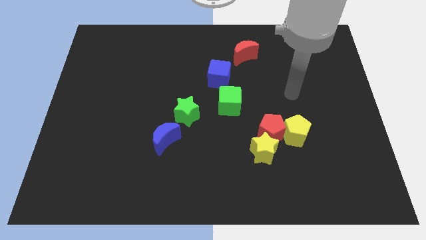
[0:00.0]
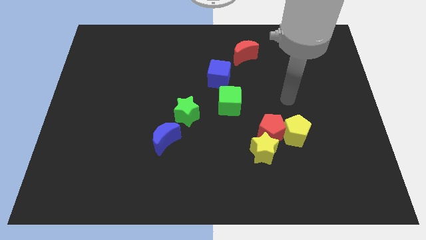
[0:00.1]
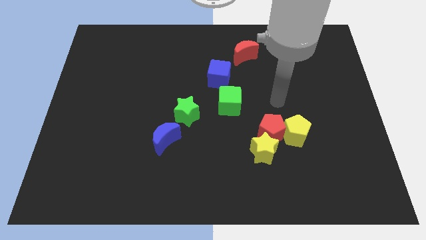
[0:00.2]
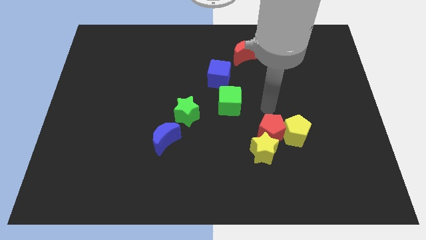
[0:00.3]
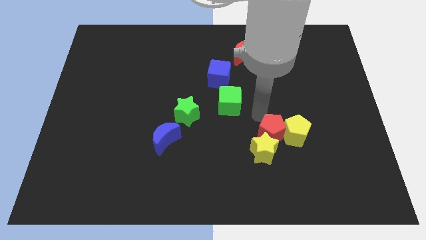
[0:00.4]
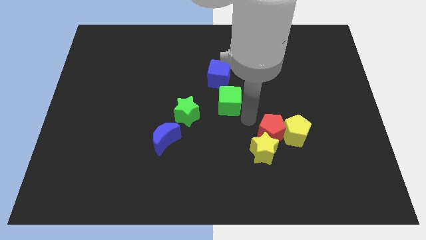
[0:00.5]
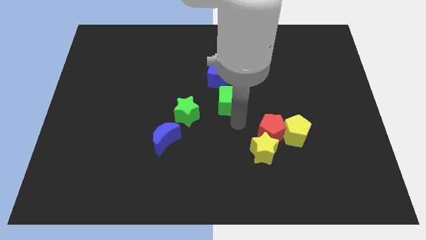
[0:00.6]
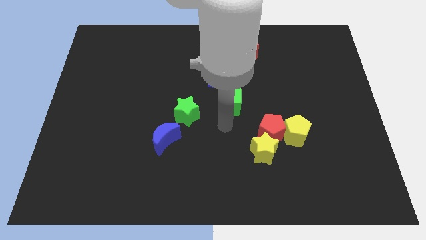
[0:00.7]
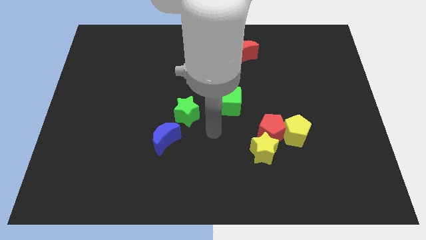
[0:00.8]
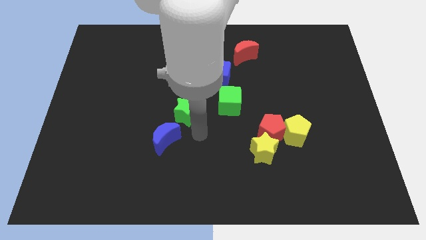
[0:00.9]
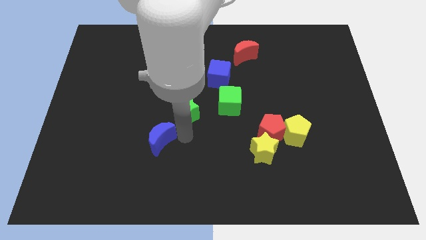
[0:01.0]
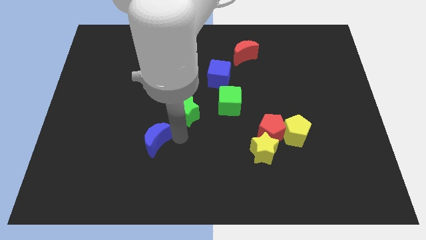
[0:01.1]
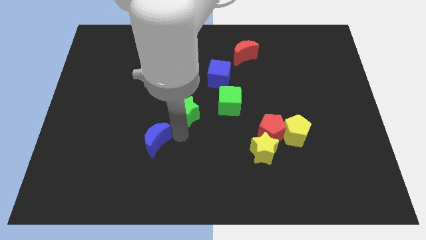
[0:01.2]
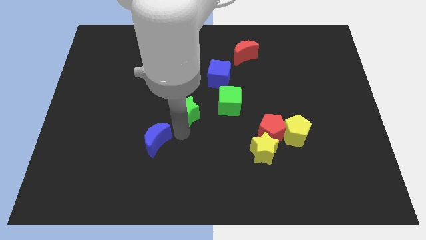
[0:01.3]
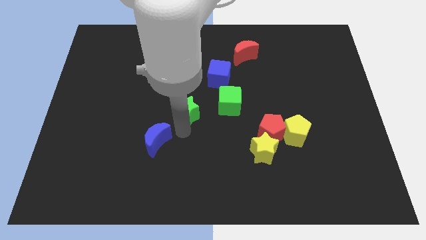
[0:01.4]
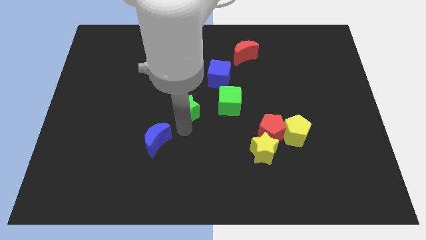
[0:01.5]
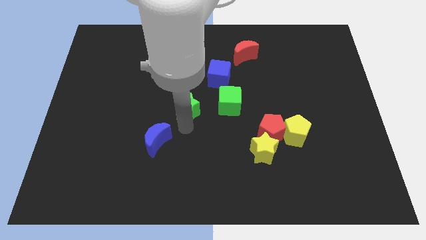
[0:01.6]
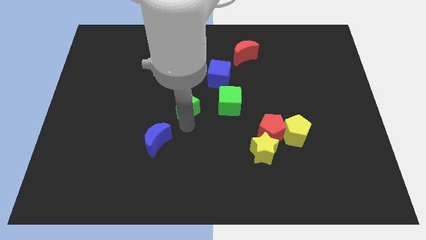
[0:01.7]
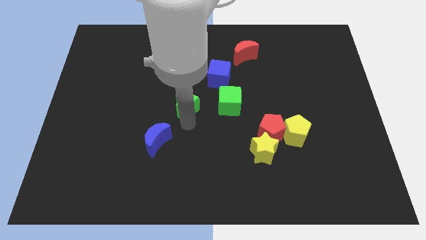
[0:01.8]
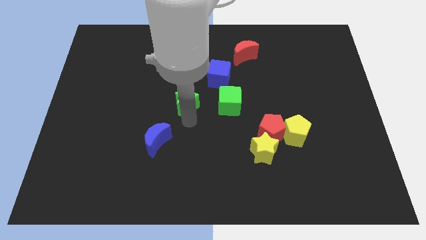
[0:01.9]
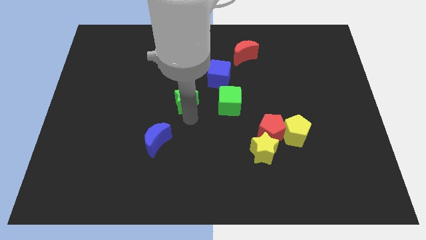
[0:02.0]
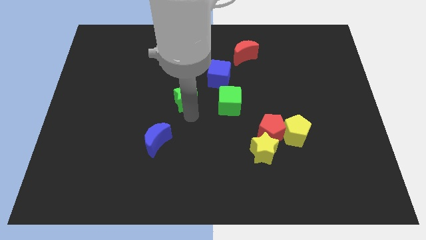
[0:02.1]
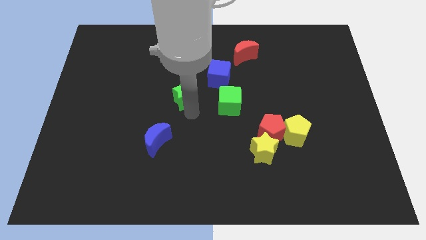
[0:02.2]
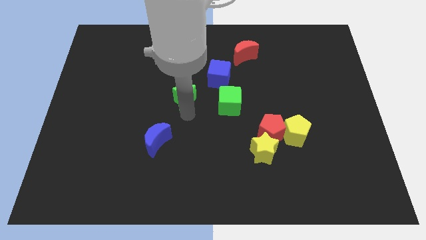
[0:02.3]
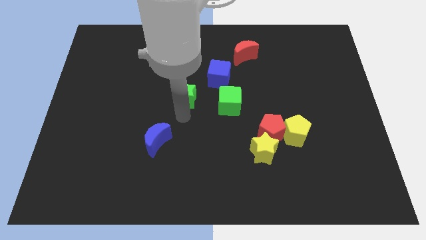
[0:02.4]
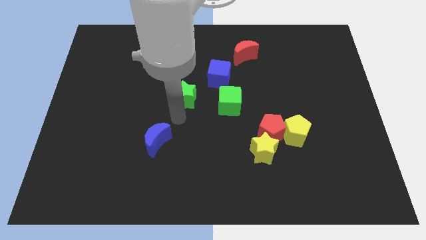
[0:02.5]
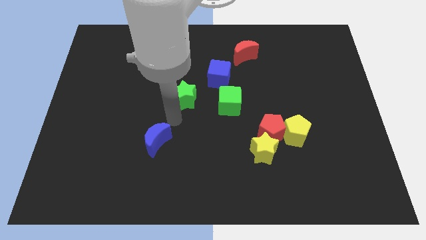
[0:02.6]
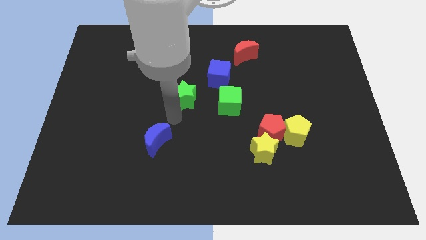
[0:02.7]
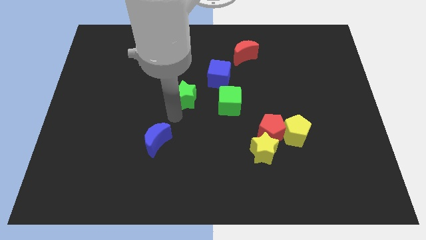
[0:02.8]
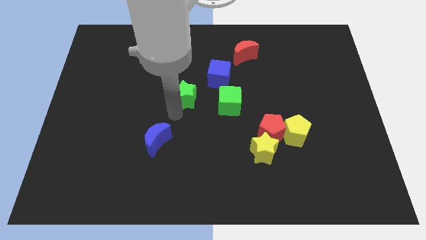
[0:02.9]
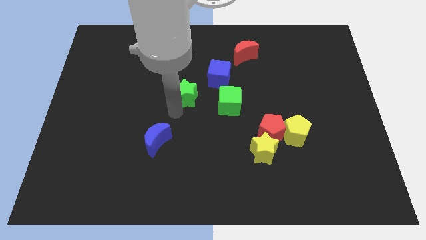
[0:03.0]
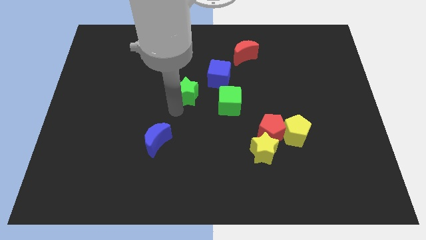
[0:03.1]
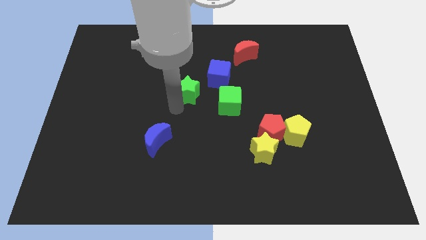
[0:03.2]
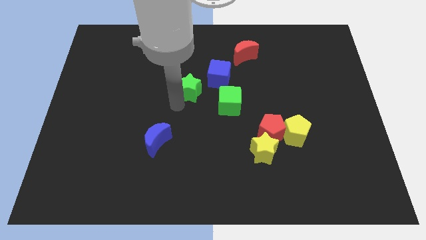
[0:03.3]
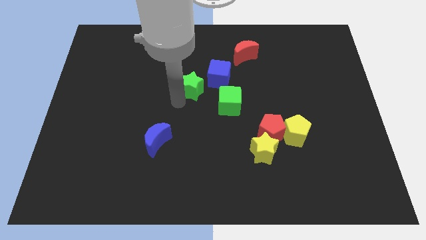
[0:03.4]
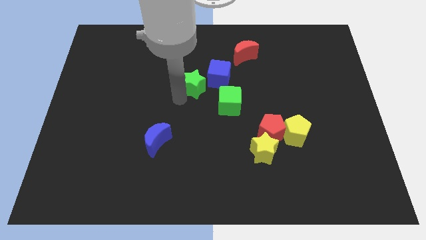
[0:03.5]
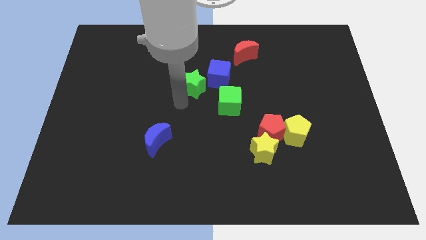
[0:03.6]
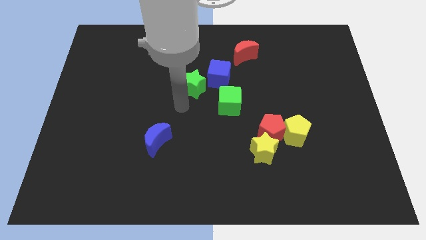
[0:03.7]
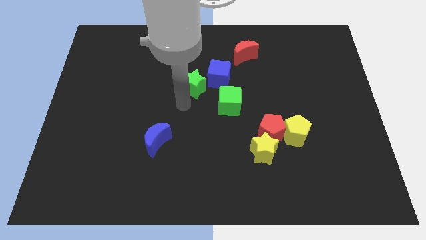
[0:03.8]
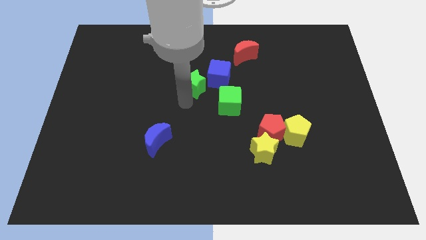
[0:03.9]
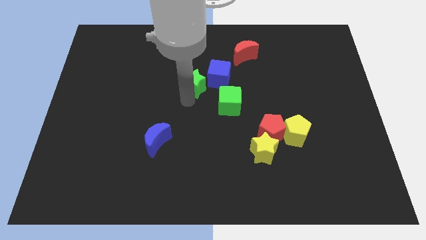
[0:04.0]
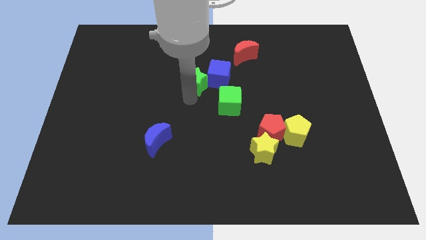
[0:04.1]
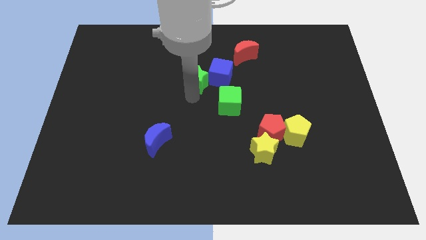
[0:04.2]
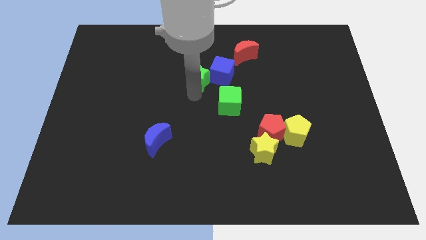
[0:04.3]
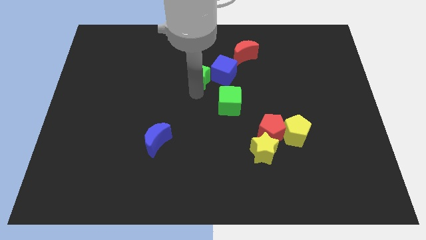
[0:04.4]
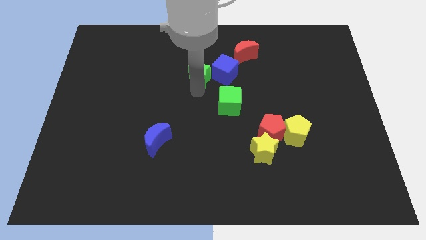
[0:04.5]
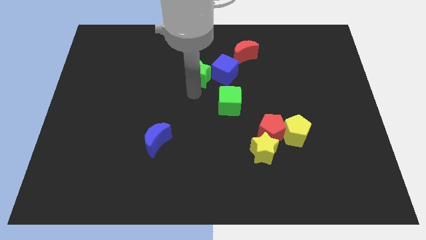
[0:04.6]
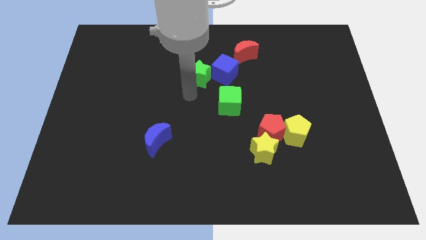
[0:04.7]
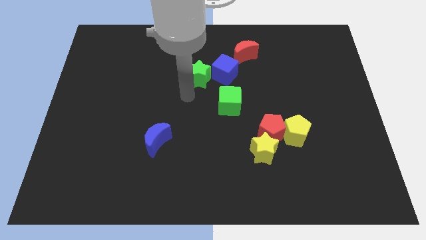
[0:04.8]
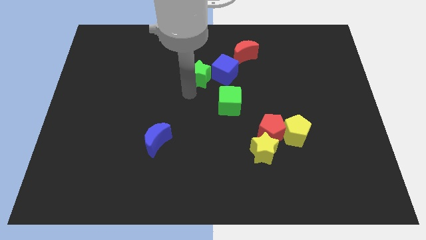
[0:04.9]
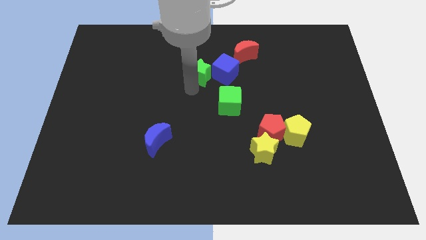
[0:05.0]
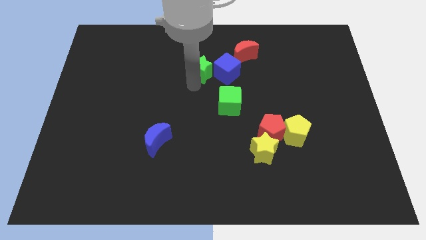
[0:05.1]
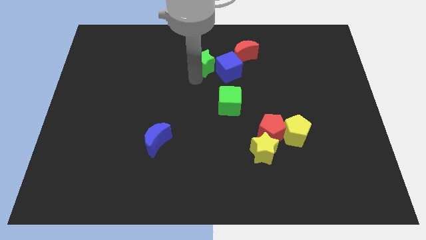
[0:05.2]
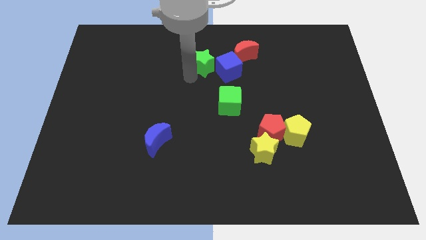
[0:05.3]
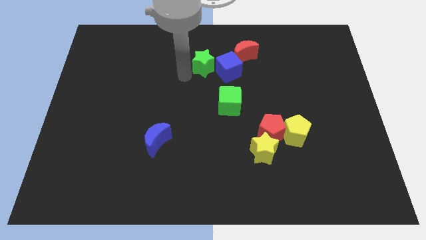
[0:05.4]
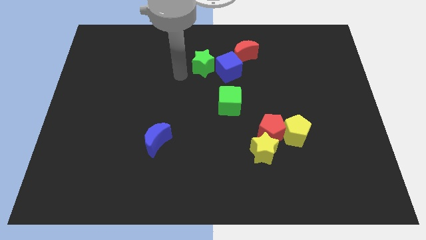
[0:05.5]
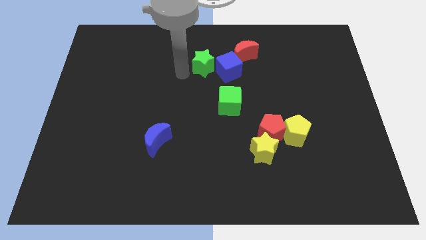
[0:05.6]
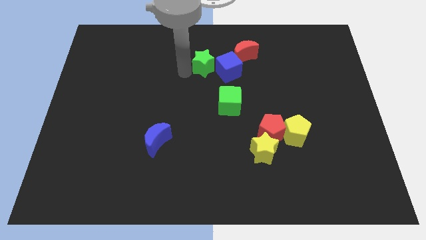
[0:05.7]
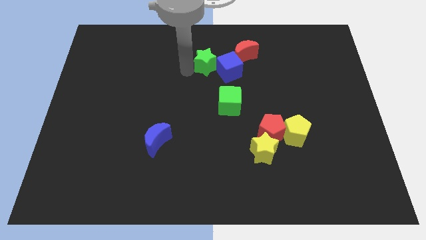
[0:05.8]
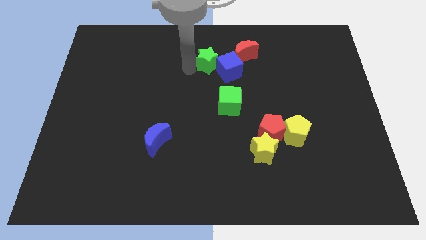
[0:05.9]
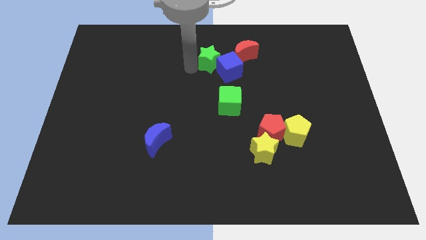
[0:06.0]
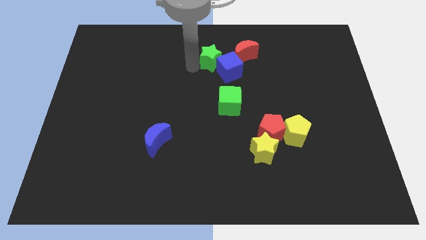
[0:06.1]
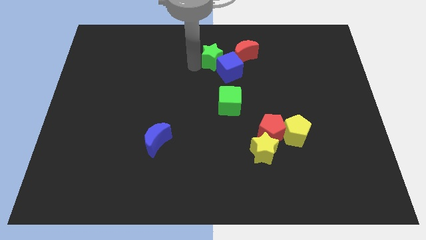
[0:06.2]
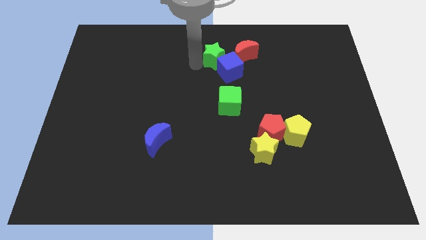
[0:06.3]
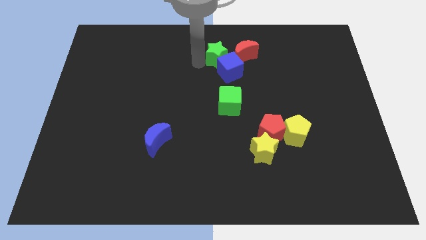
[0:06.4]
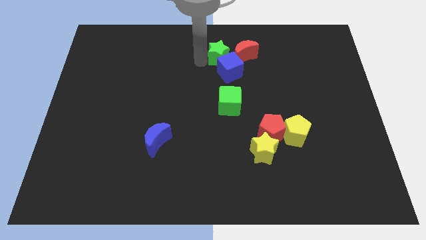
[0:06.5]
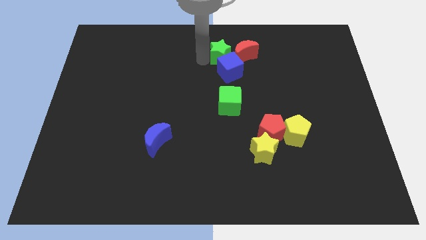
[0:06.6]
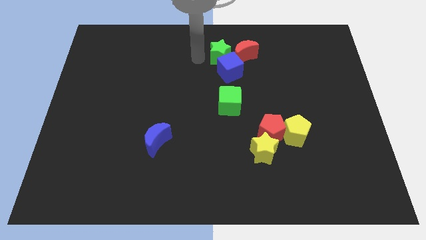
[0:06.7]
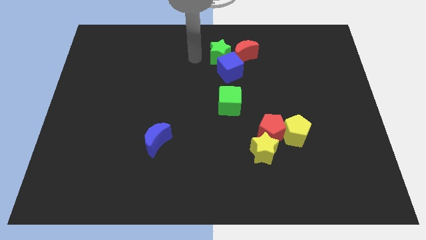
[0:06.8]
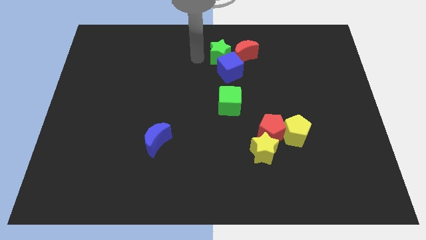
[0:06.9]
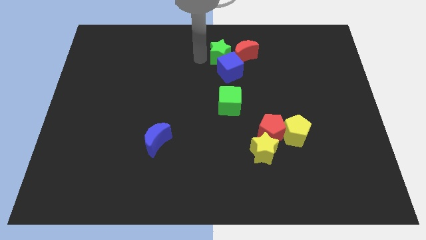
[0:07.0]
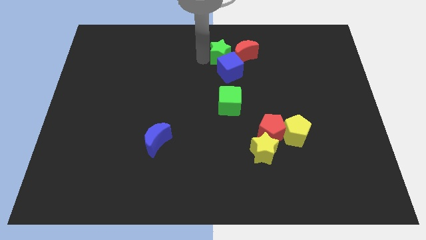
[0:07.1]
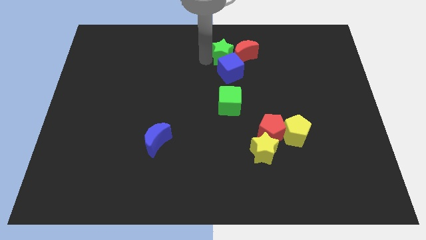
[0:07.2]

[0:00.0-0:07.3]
slide the green star towards the red moon
